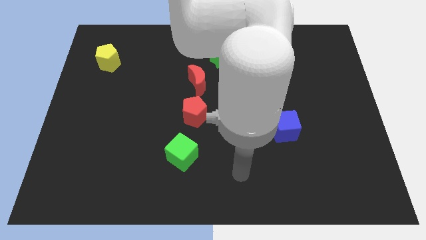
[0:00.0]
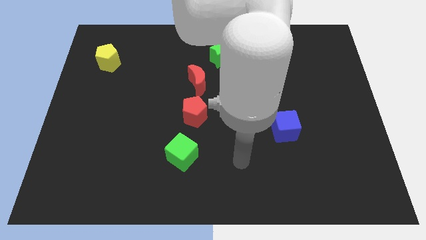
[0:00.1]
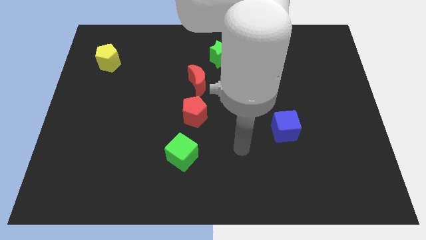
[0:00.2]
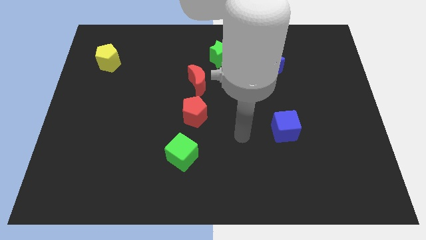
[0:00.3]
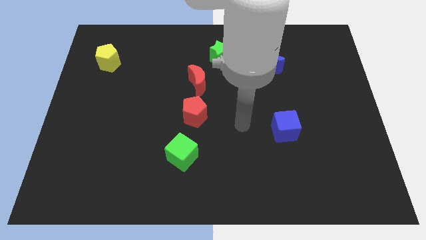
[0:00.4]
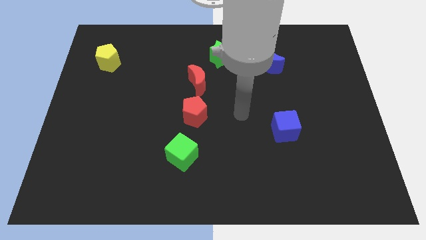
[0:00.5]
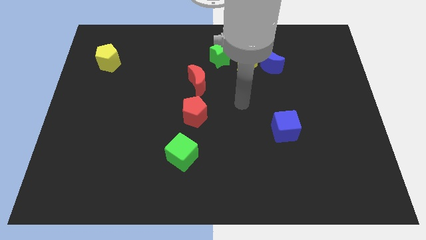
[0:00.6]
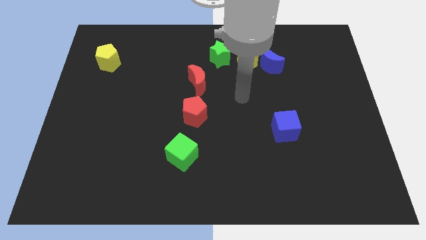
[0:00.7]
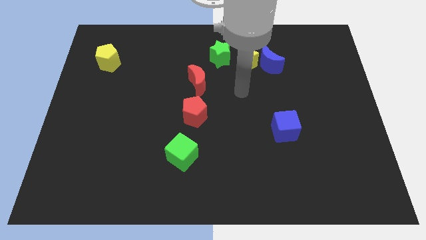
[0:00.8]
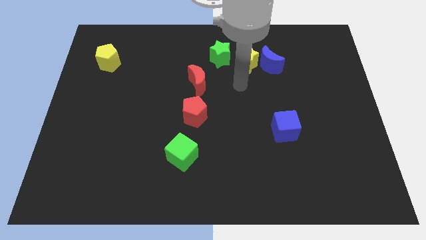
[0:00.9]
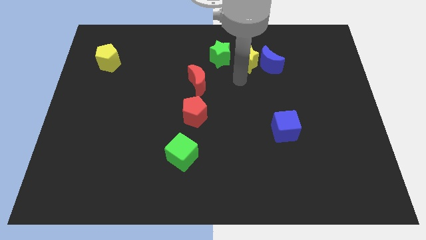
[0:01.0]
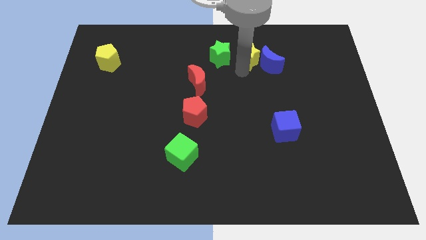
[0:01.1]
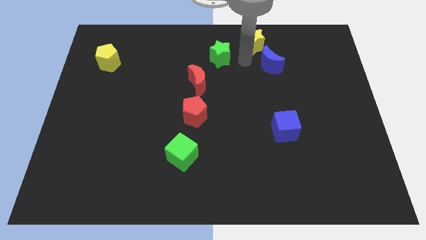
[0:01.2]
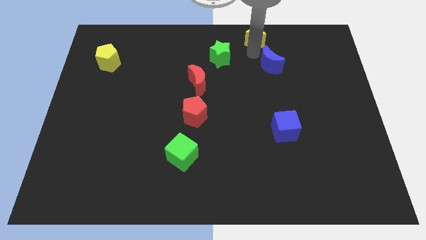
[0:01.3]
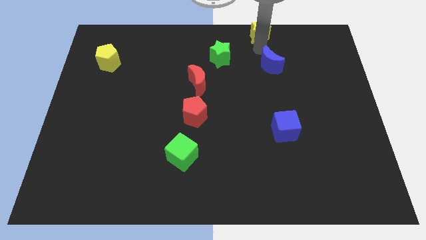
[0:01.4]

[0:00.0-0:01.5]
move the blue moon away from the yellow star

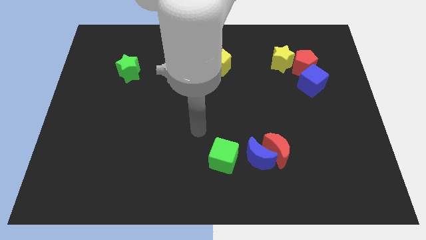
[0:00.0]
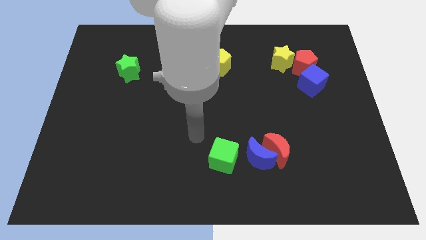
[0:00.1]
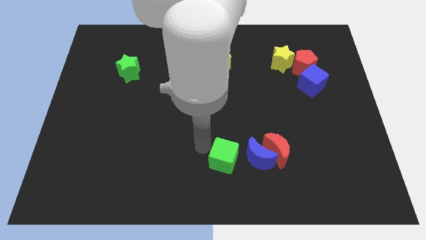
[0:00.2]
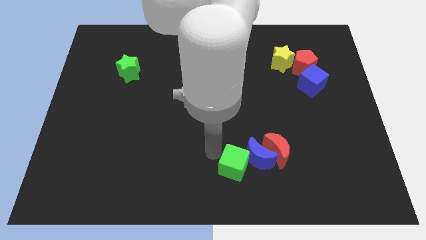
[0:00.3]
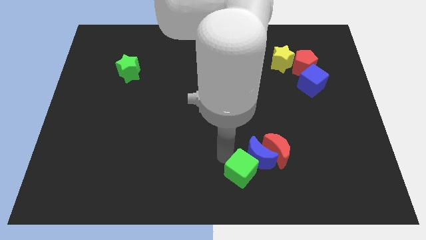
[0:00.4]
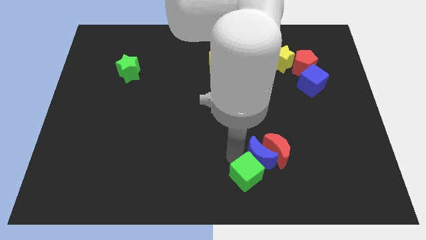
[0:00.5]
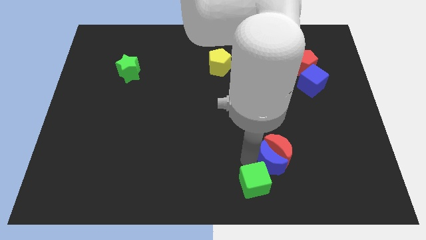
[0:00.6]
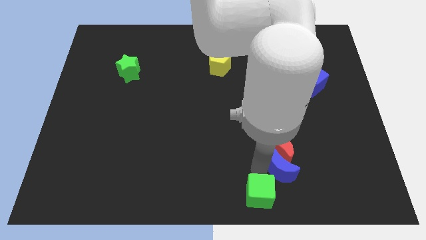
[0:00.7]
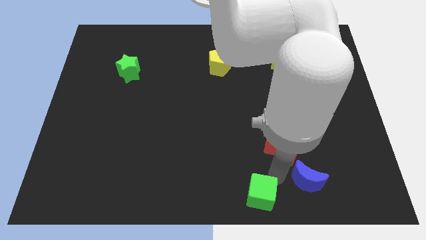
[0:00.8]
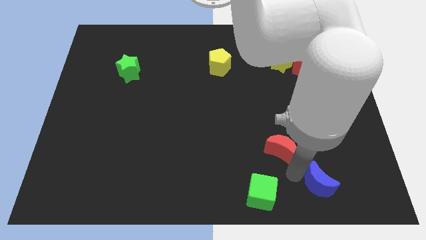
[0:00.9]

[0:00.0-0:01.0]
move the red moon away from the blue moon

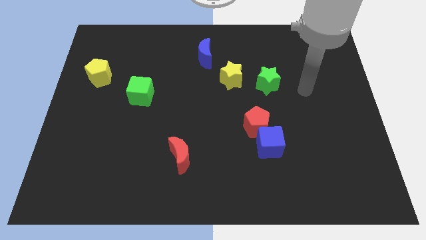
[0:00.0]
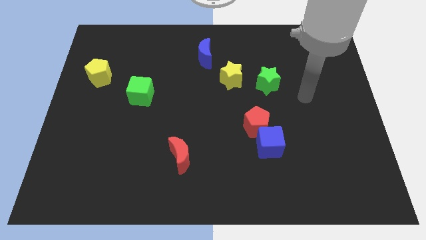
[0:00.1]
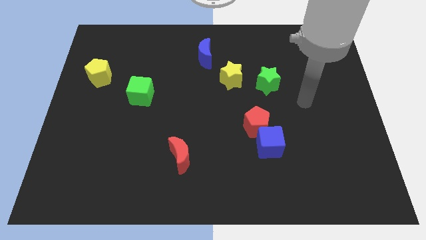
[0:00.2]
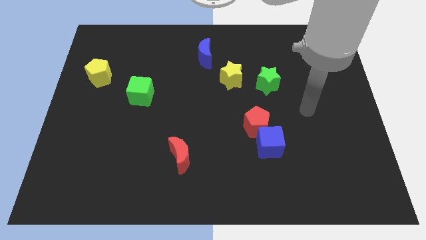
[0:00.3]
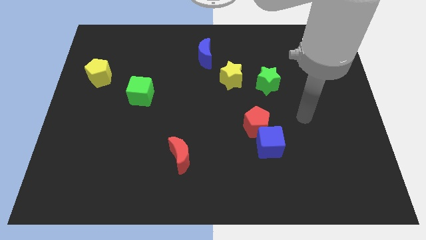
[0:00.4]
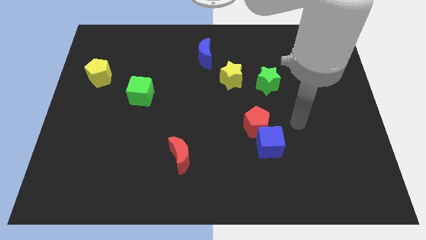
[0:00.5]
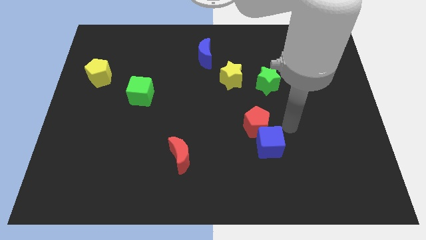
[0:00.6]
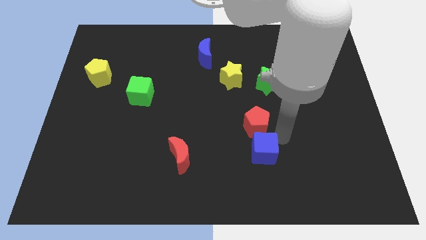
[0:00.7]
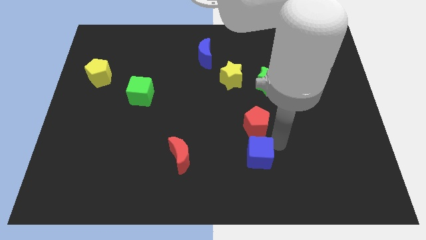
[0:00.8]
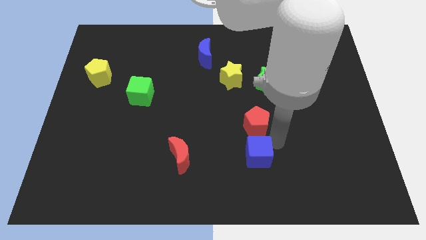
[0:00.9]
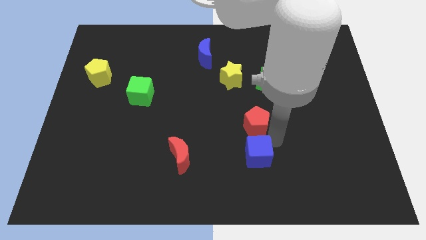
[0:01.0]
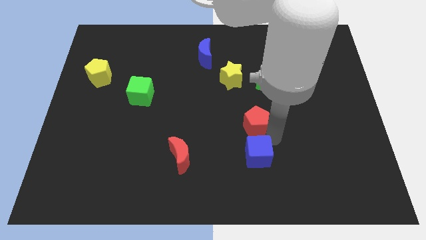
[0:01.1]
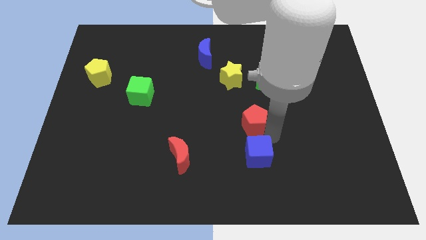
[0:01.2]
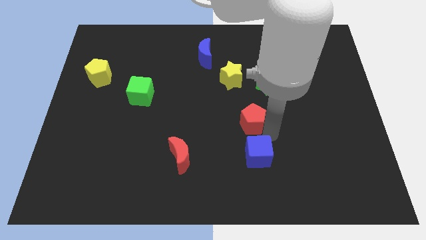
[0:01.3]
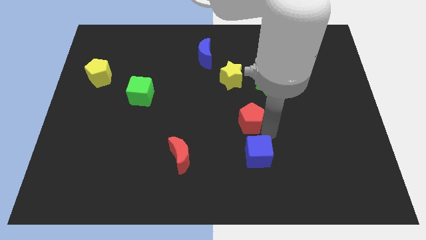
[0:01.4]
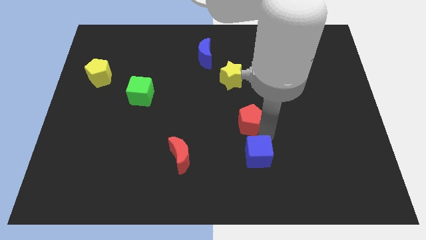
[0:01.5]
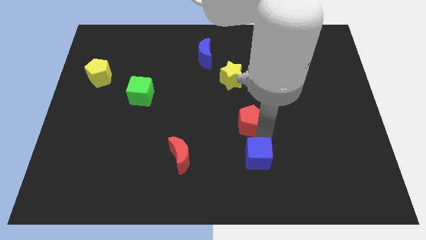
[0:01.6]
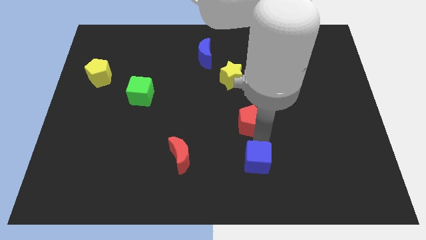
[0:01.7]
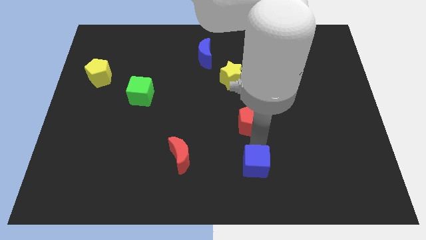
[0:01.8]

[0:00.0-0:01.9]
pull the red pentagon apart from the blue cube

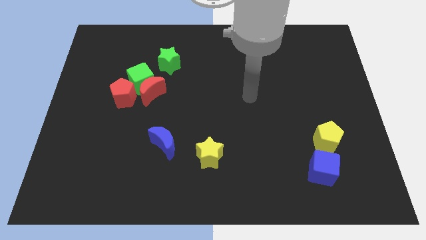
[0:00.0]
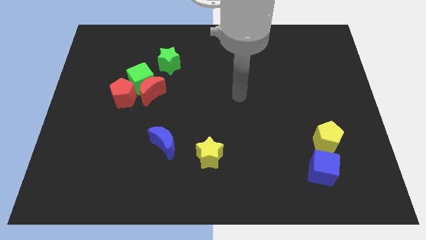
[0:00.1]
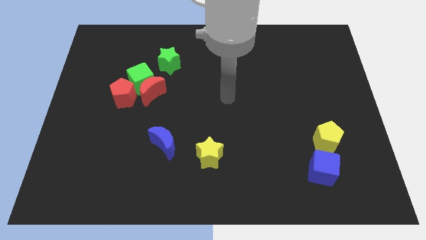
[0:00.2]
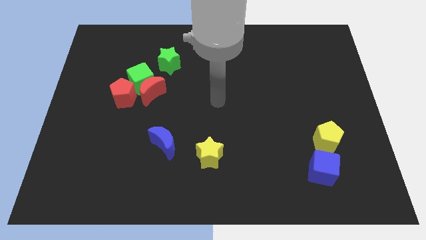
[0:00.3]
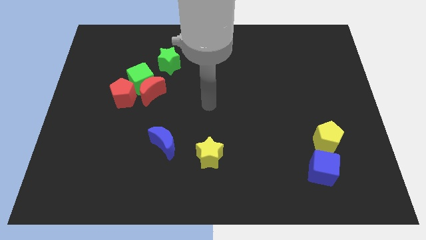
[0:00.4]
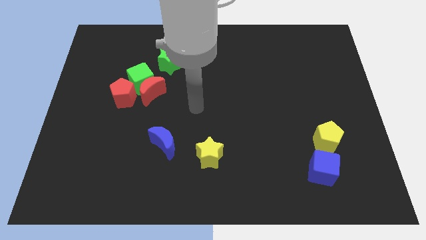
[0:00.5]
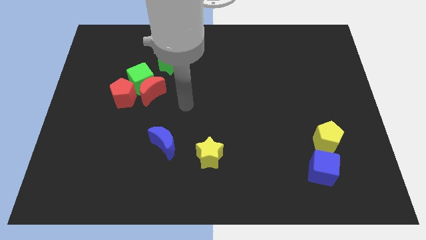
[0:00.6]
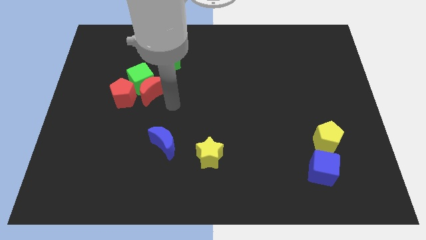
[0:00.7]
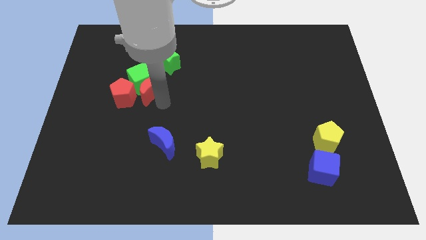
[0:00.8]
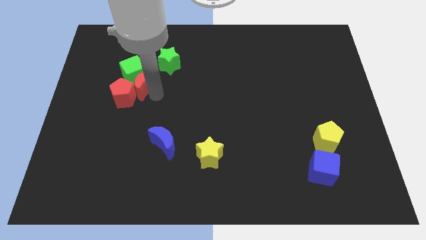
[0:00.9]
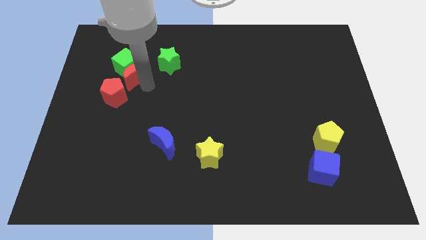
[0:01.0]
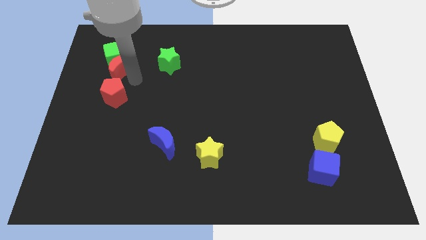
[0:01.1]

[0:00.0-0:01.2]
pull the red pentagon apart from the green cube and red moon

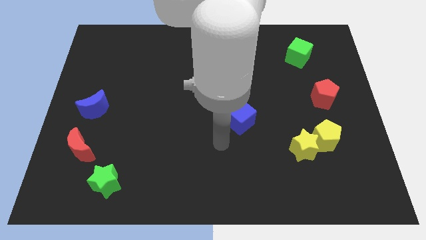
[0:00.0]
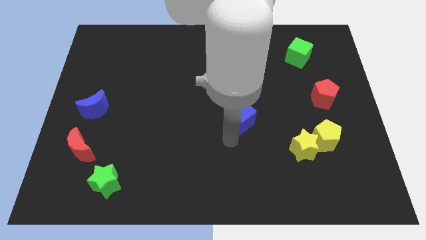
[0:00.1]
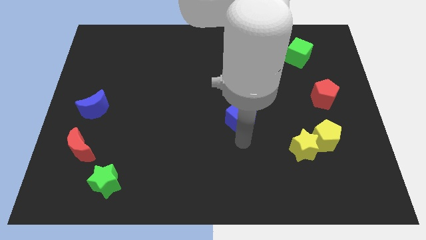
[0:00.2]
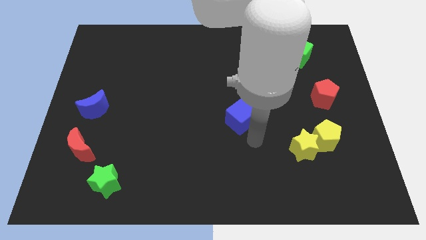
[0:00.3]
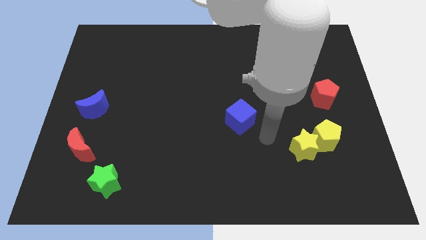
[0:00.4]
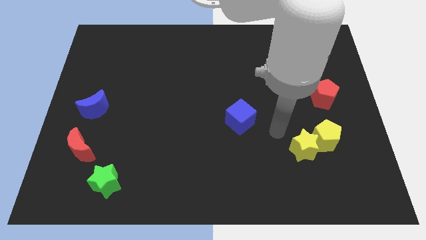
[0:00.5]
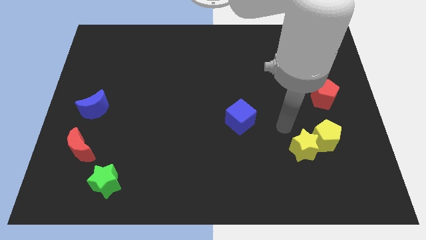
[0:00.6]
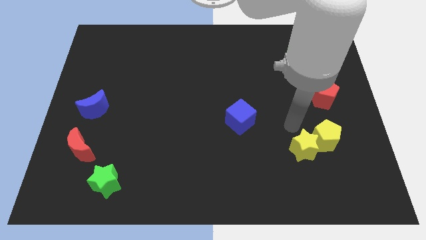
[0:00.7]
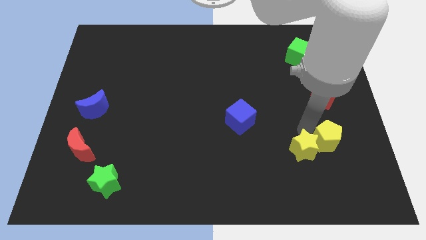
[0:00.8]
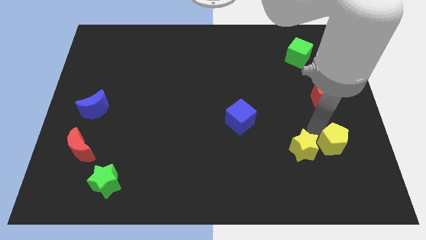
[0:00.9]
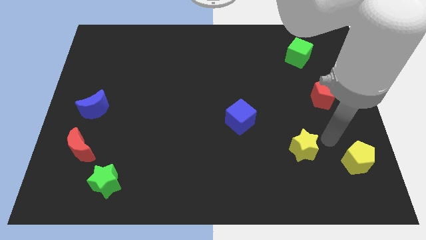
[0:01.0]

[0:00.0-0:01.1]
separate the yellow star from the yellow pentagon

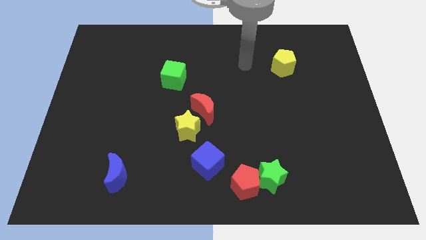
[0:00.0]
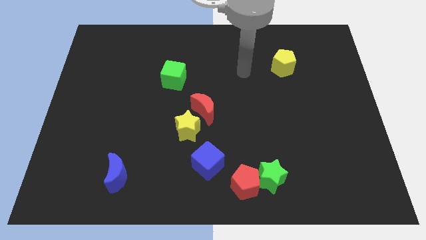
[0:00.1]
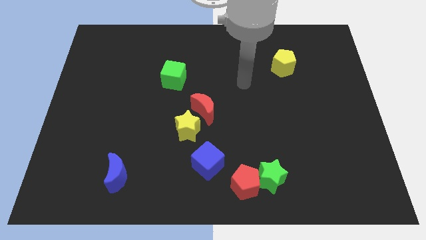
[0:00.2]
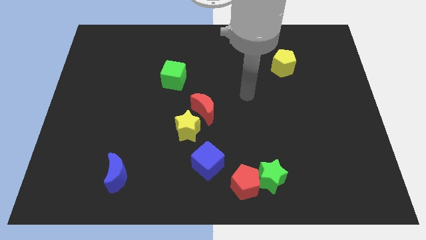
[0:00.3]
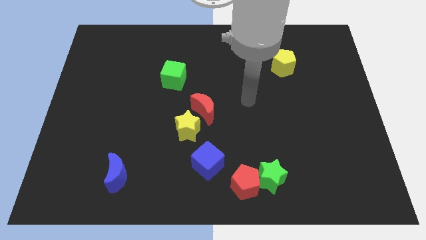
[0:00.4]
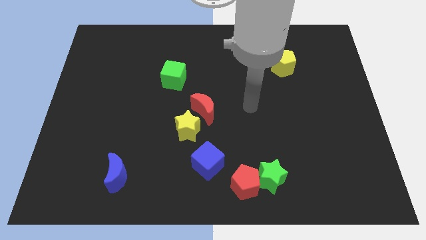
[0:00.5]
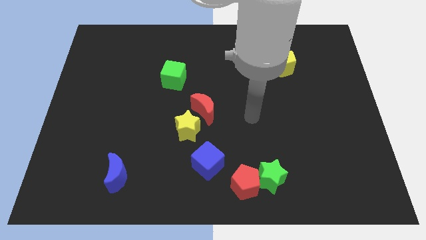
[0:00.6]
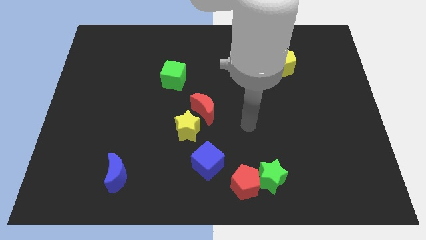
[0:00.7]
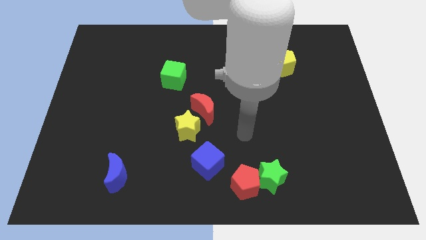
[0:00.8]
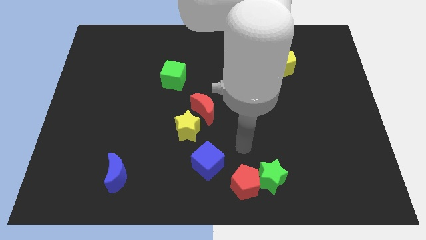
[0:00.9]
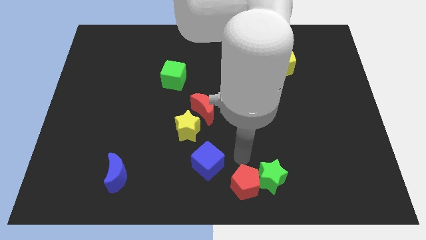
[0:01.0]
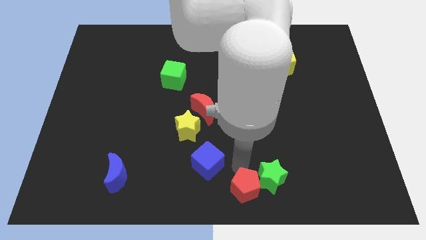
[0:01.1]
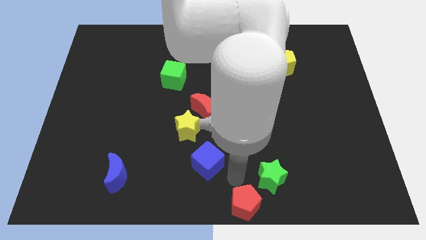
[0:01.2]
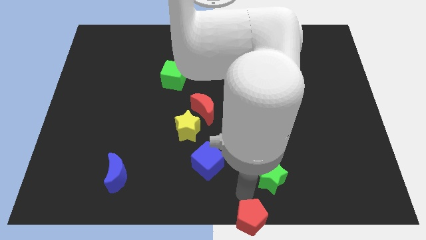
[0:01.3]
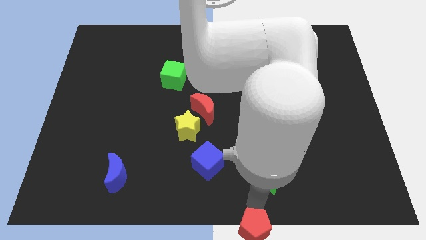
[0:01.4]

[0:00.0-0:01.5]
separate the green star from the red pentagon

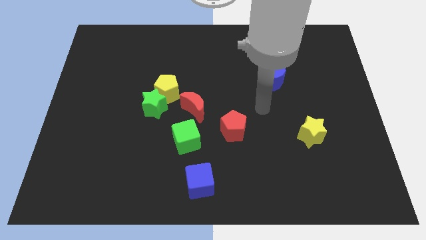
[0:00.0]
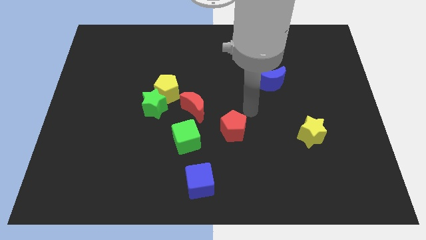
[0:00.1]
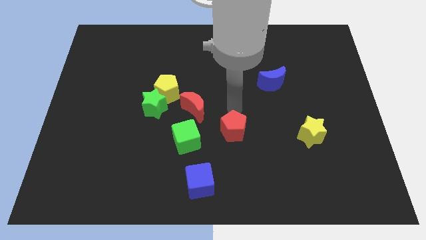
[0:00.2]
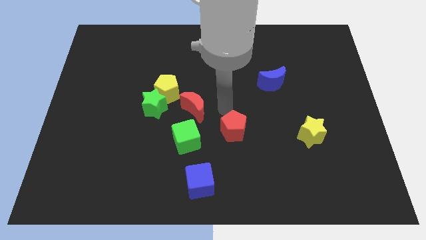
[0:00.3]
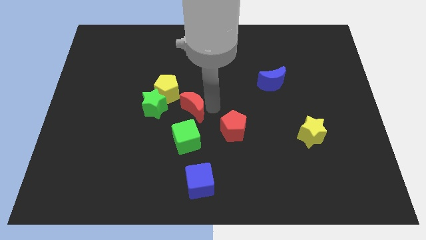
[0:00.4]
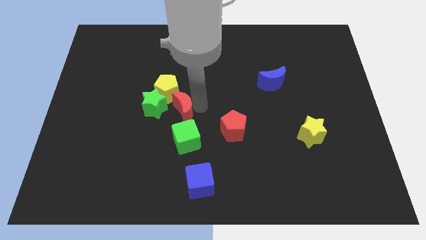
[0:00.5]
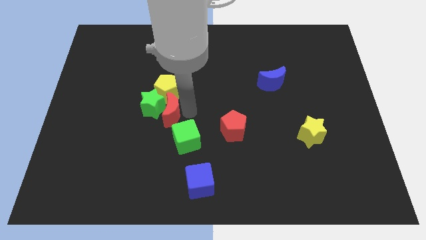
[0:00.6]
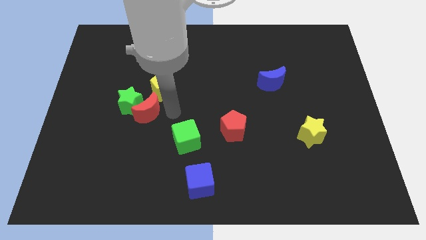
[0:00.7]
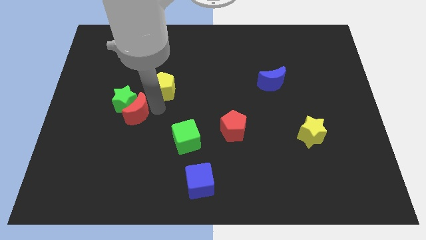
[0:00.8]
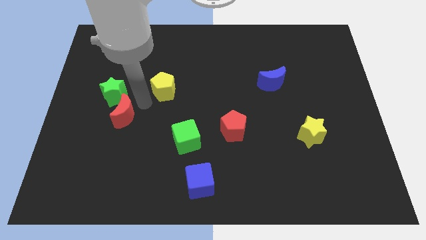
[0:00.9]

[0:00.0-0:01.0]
separate the yellow pentagon from the green star and red moon

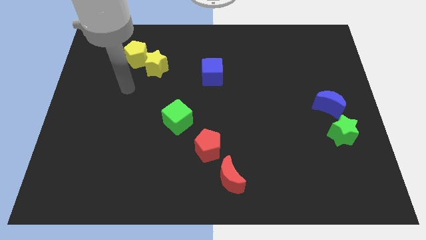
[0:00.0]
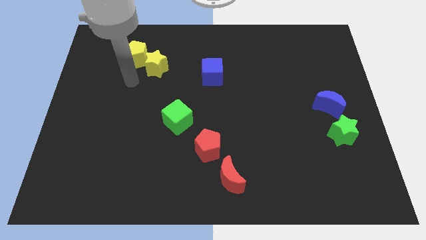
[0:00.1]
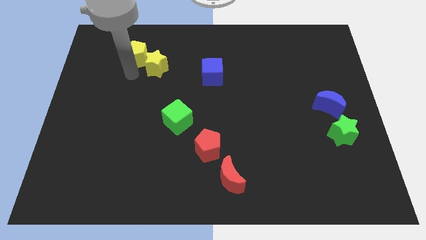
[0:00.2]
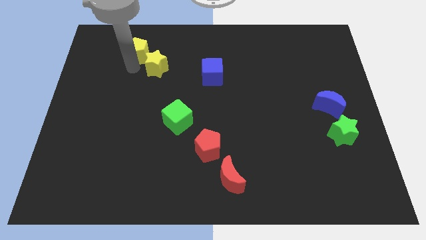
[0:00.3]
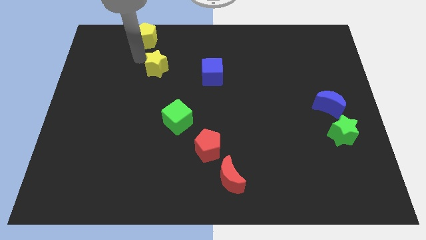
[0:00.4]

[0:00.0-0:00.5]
pull the yellow star apart from the yellow pentagon
